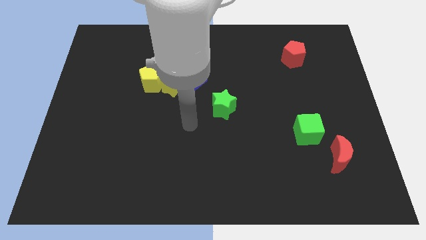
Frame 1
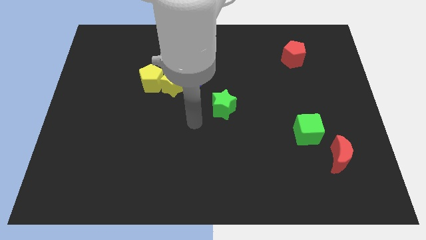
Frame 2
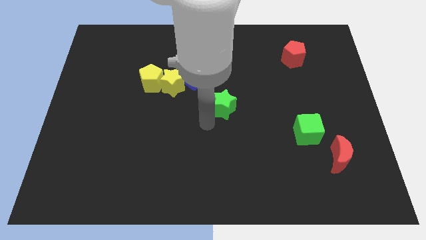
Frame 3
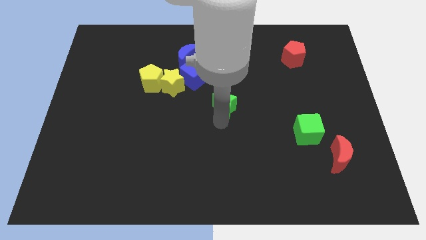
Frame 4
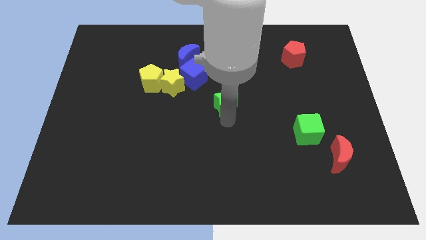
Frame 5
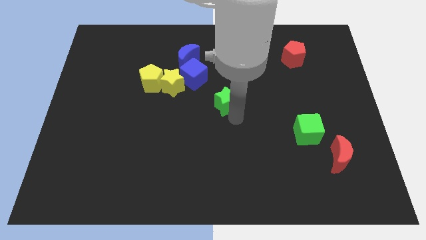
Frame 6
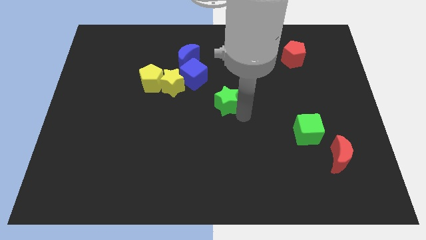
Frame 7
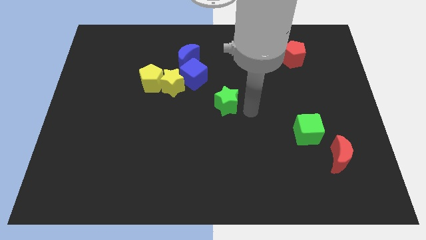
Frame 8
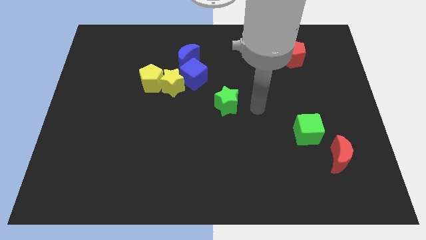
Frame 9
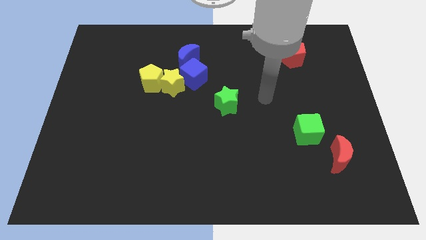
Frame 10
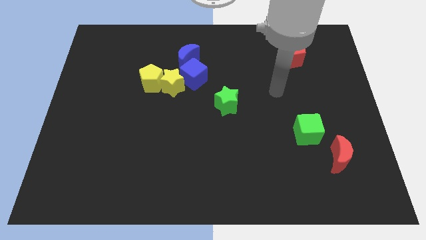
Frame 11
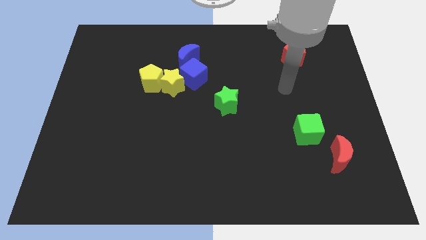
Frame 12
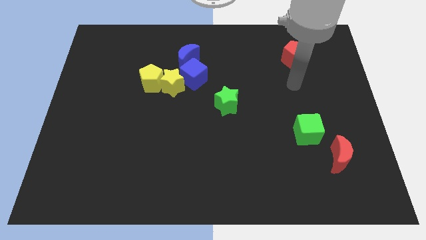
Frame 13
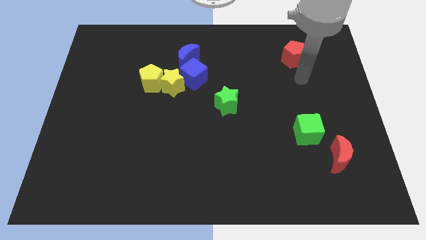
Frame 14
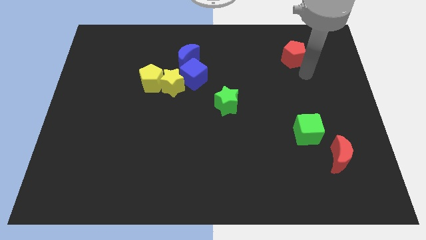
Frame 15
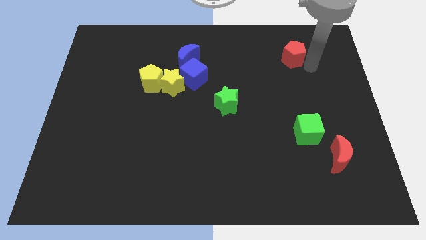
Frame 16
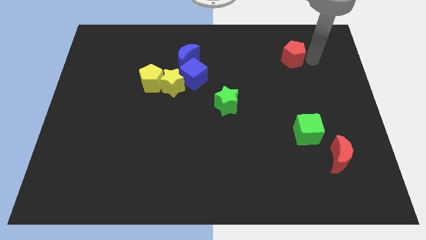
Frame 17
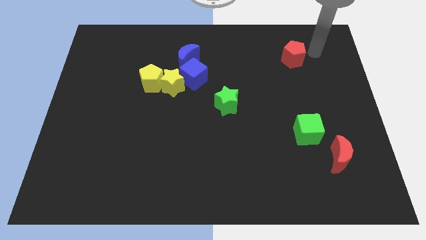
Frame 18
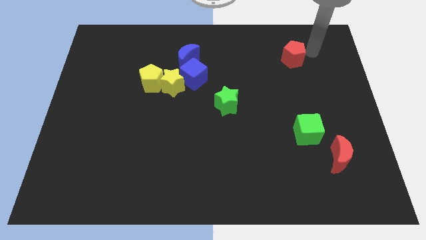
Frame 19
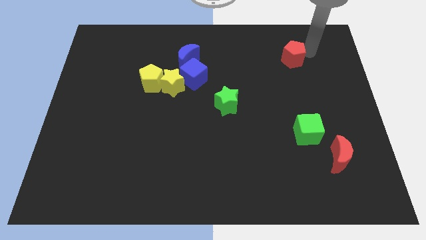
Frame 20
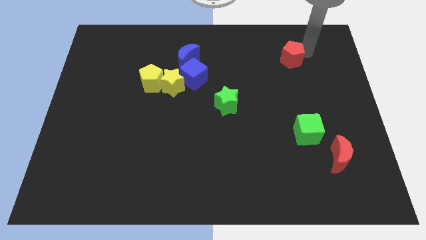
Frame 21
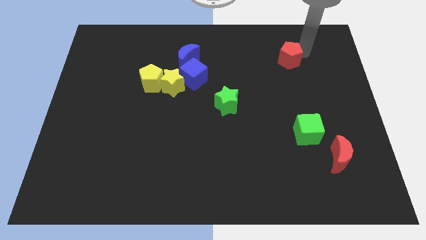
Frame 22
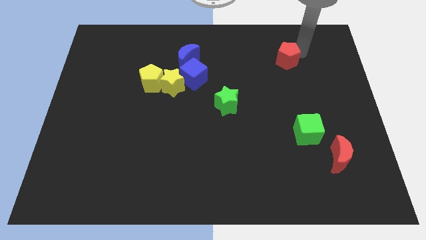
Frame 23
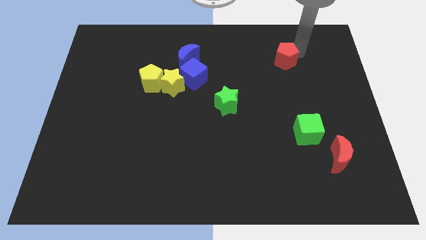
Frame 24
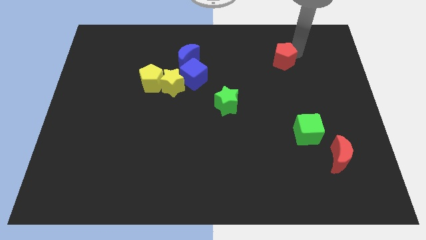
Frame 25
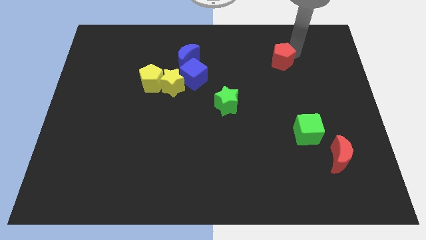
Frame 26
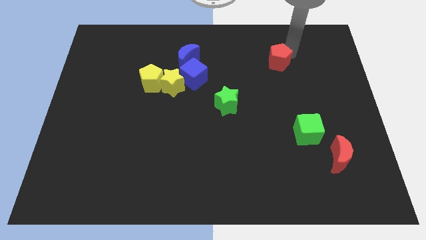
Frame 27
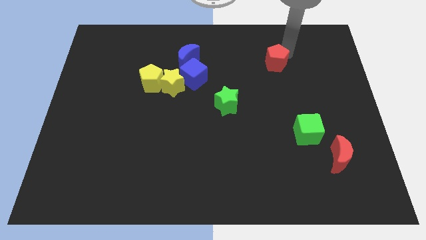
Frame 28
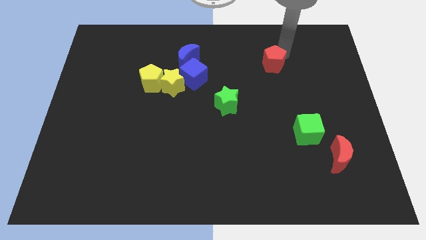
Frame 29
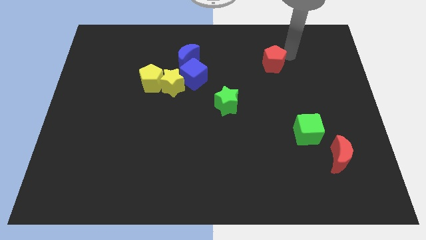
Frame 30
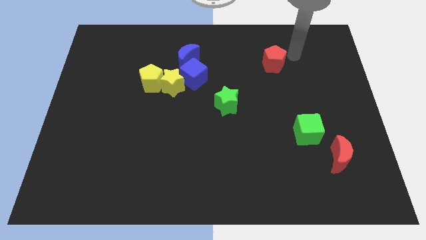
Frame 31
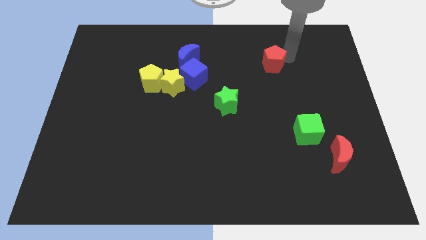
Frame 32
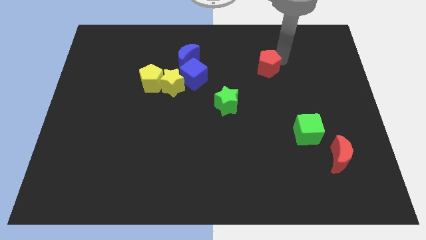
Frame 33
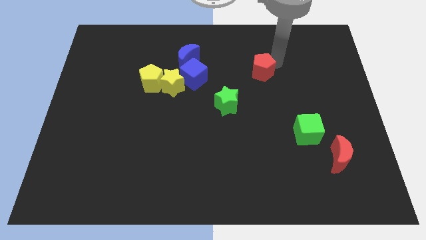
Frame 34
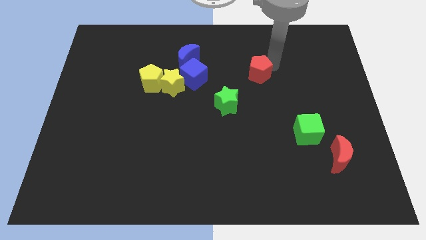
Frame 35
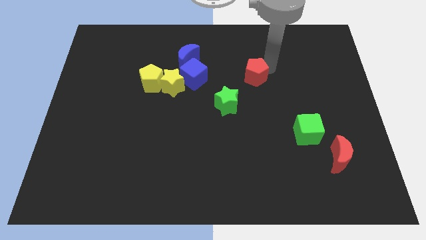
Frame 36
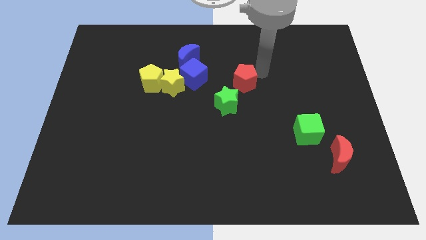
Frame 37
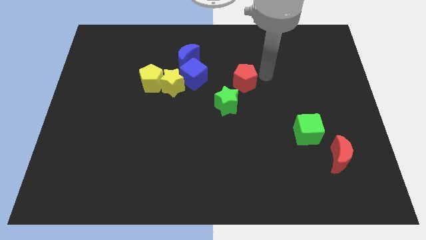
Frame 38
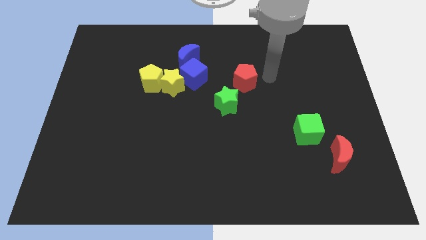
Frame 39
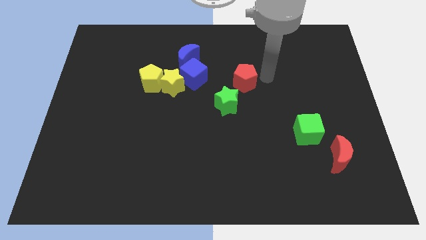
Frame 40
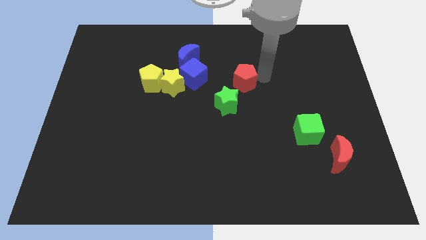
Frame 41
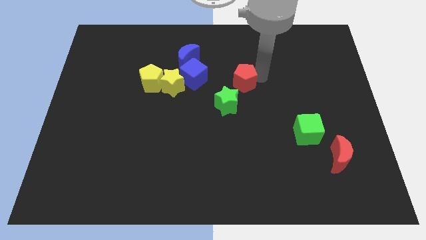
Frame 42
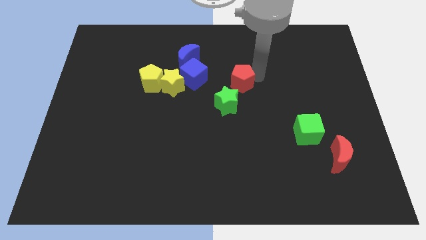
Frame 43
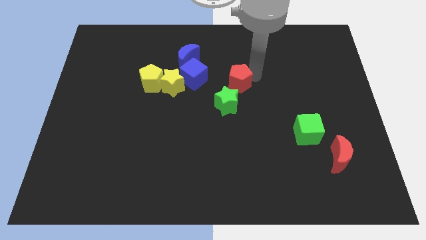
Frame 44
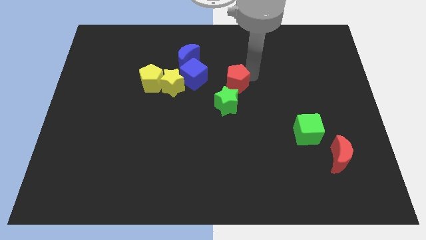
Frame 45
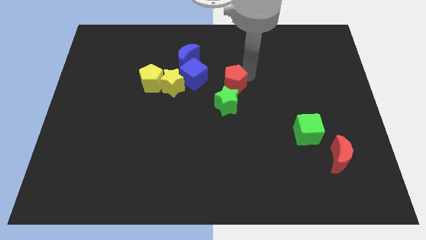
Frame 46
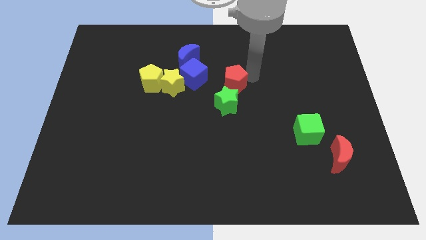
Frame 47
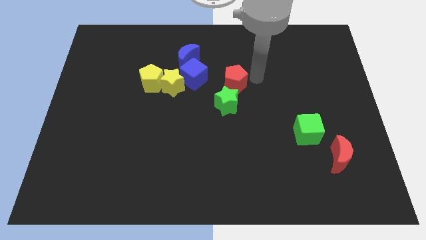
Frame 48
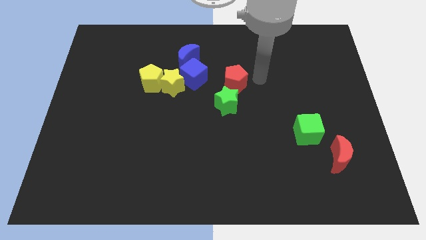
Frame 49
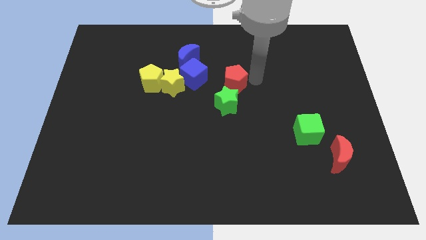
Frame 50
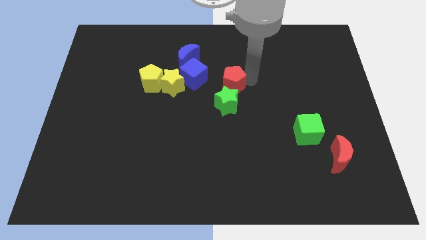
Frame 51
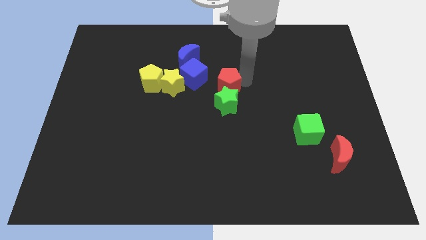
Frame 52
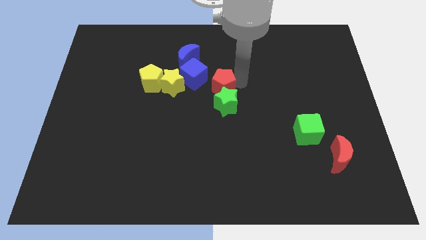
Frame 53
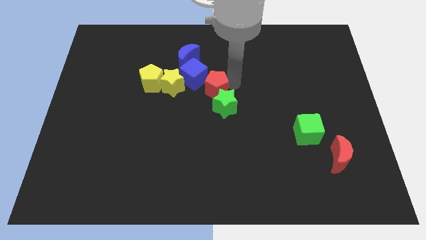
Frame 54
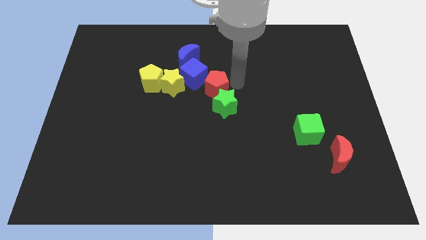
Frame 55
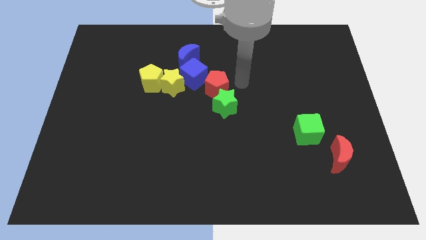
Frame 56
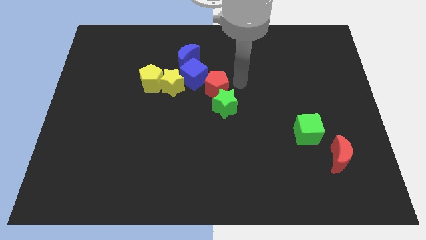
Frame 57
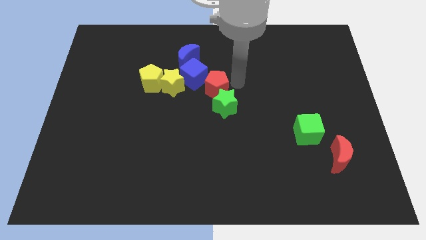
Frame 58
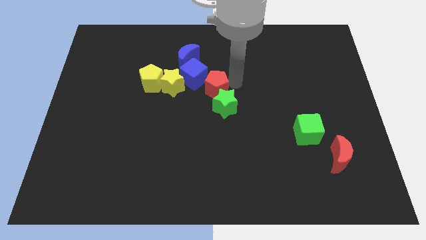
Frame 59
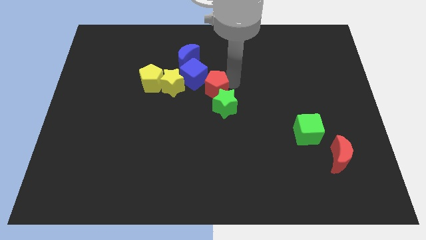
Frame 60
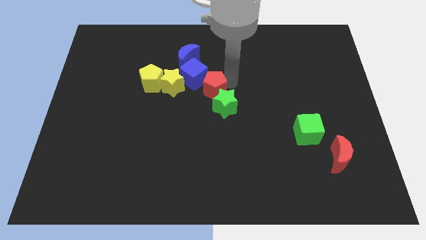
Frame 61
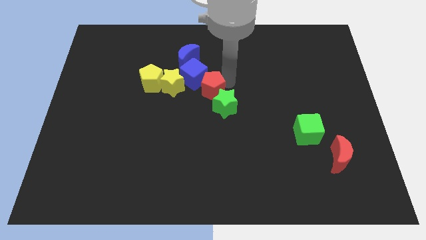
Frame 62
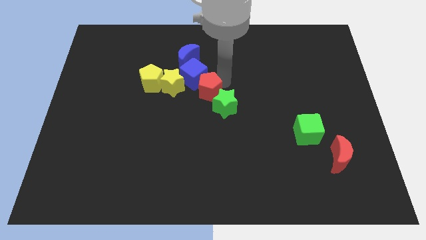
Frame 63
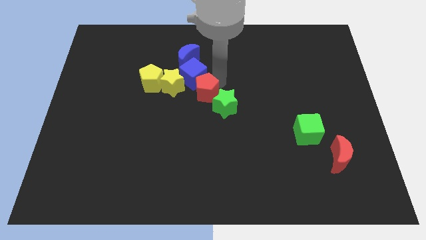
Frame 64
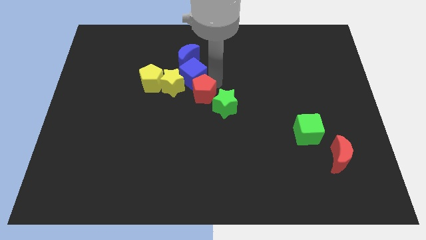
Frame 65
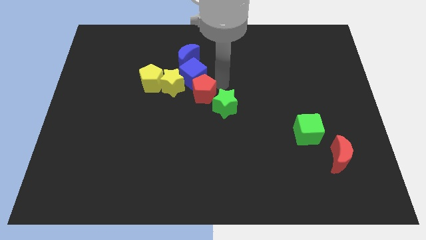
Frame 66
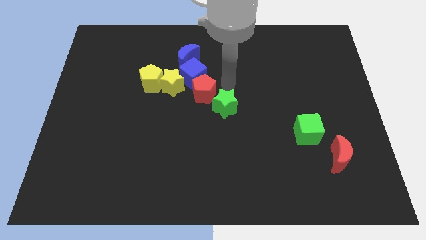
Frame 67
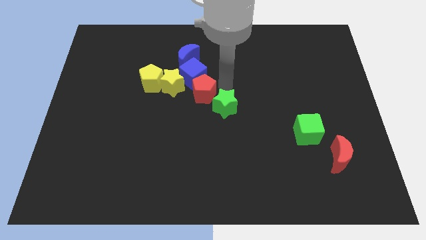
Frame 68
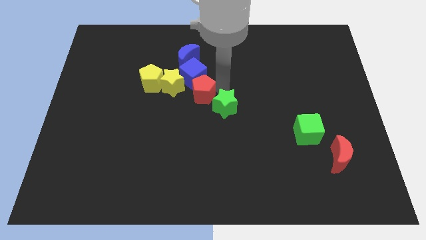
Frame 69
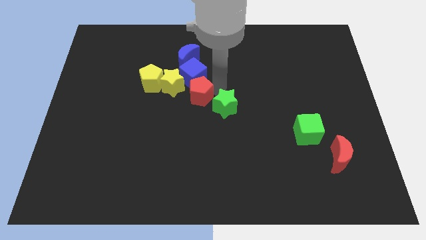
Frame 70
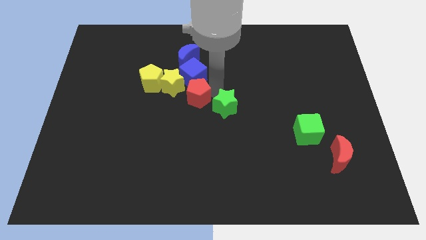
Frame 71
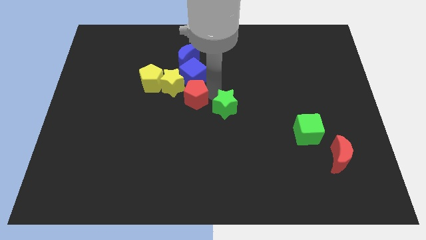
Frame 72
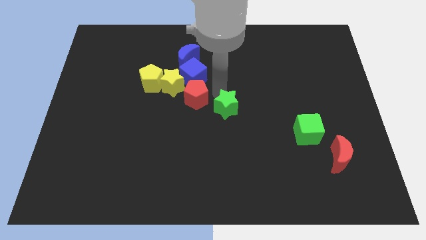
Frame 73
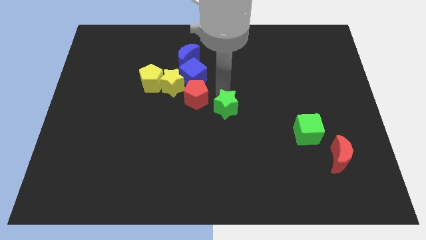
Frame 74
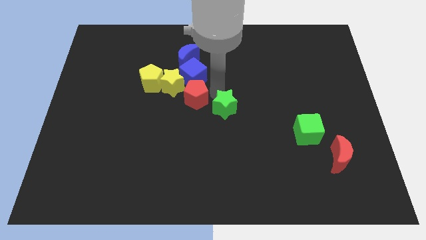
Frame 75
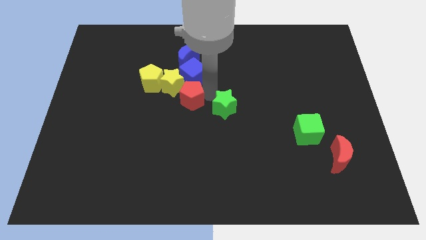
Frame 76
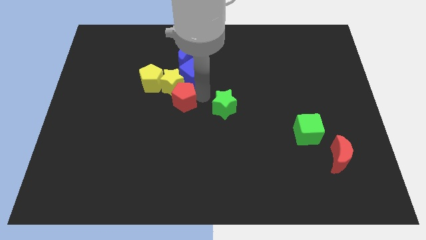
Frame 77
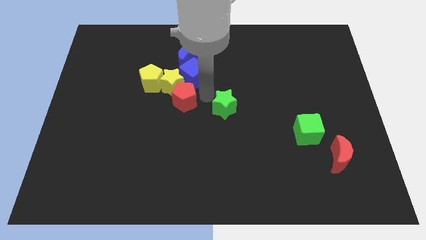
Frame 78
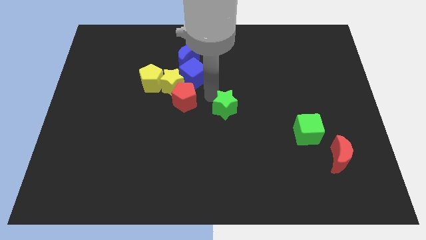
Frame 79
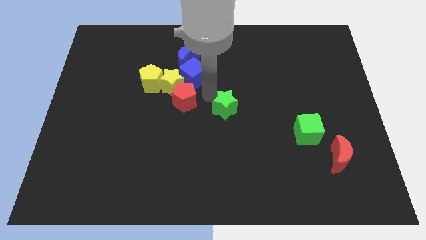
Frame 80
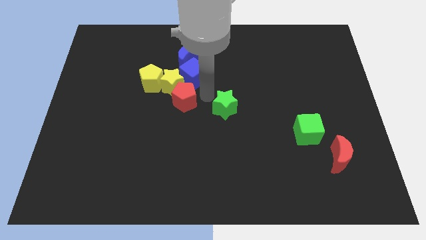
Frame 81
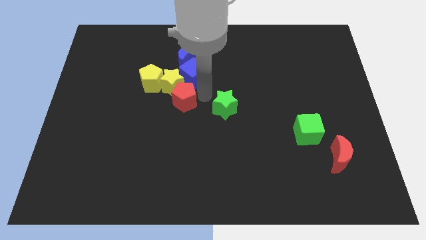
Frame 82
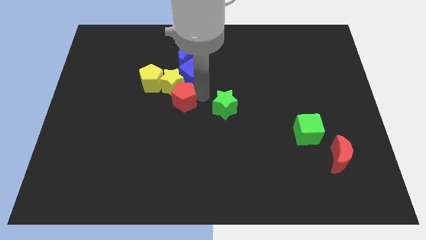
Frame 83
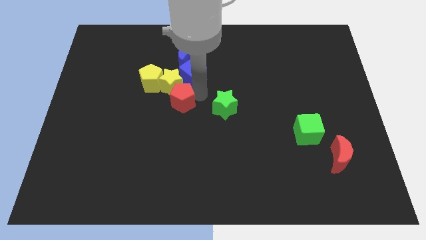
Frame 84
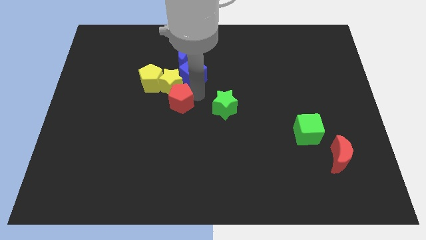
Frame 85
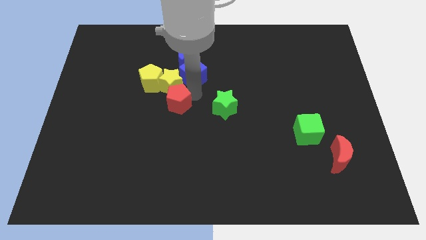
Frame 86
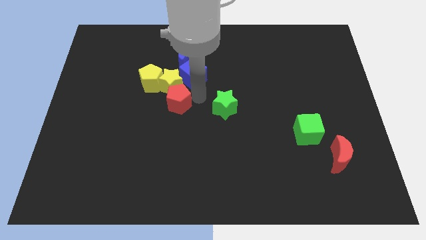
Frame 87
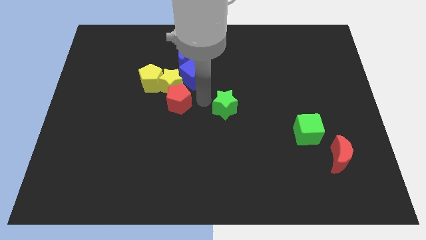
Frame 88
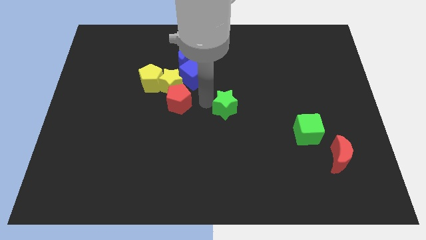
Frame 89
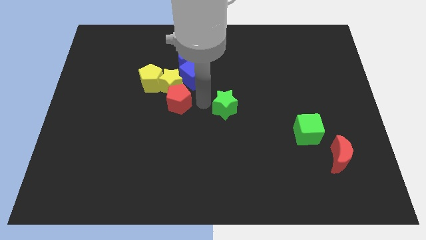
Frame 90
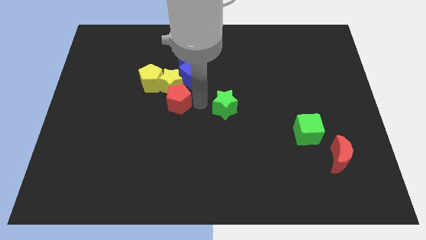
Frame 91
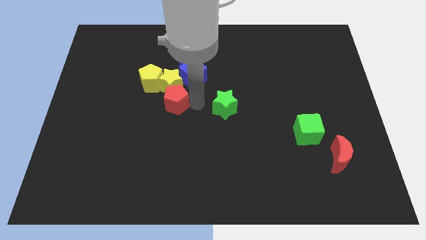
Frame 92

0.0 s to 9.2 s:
put the red pentagon diagonally down and to the left of the yellow star
